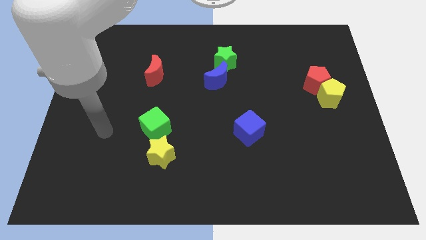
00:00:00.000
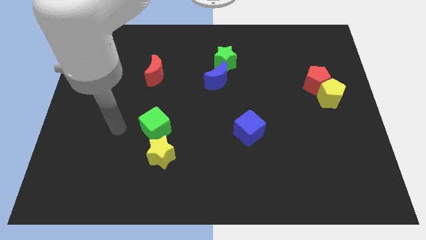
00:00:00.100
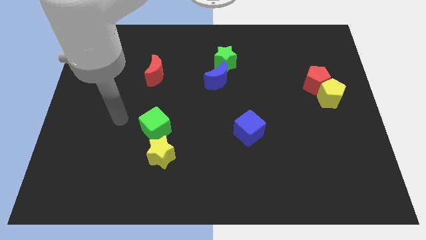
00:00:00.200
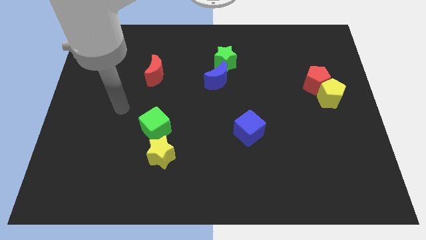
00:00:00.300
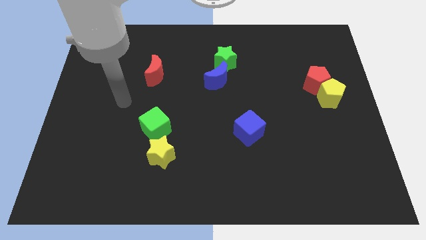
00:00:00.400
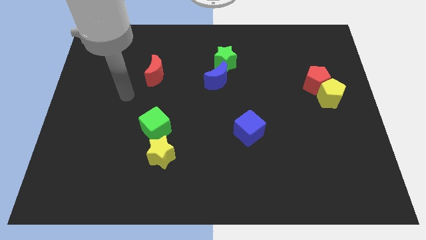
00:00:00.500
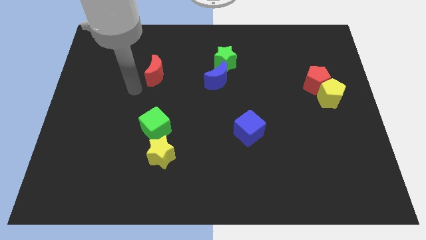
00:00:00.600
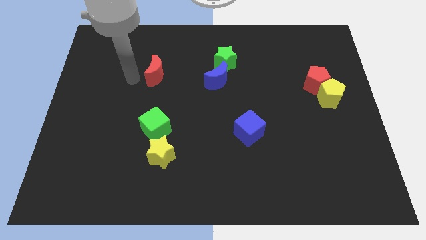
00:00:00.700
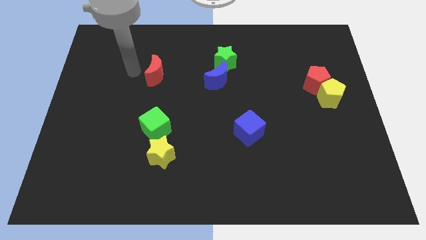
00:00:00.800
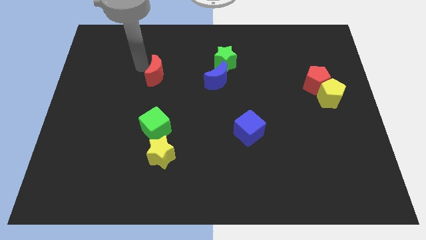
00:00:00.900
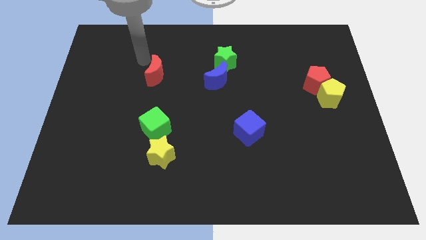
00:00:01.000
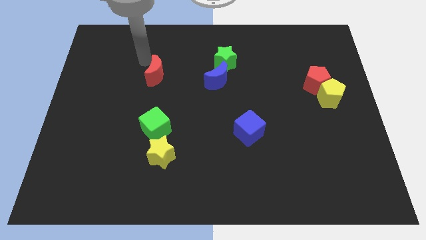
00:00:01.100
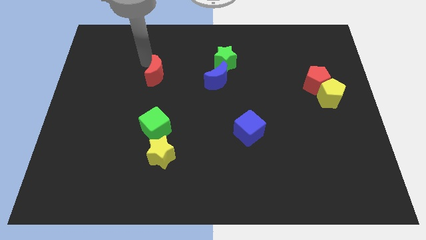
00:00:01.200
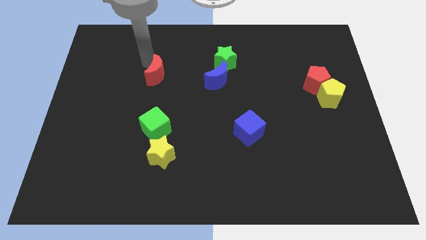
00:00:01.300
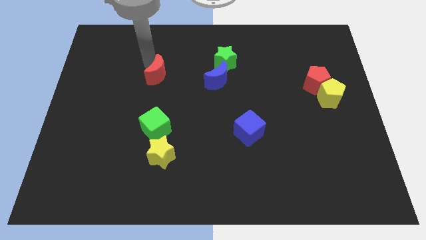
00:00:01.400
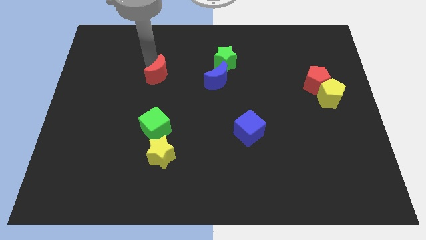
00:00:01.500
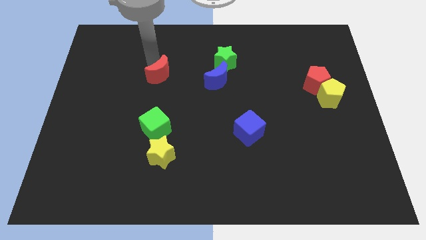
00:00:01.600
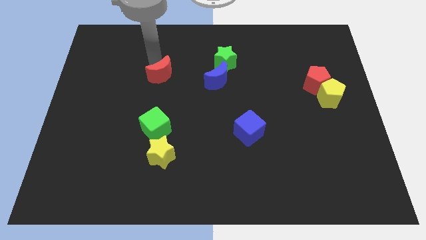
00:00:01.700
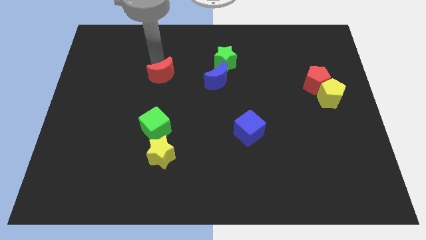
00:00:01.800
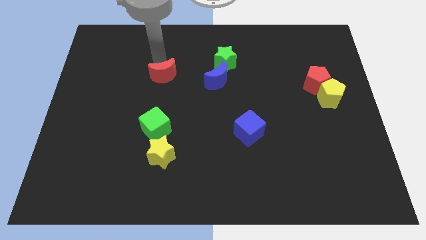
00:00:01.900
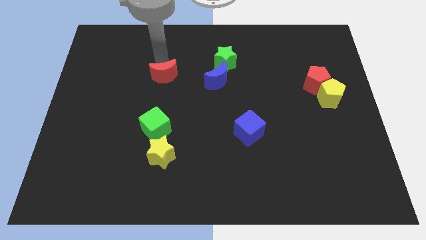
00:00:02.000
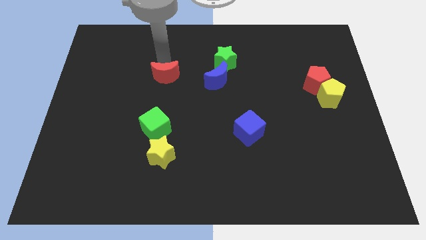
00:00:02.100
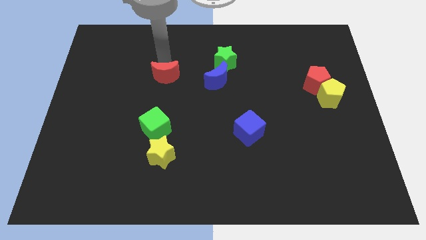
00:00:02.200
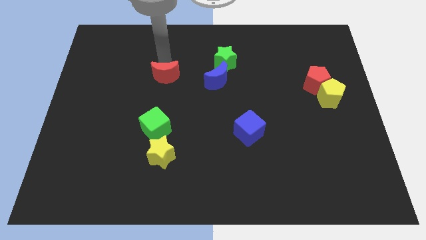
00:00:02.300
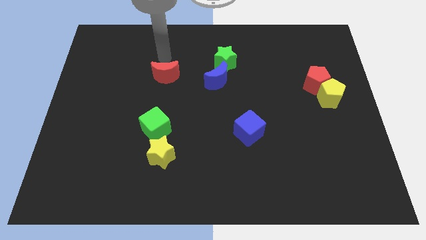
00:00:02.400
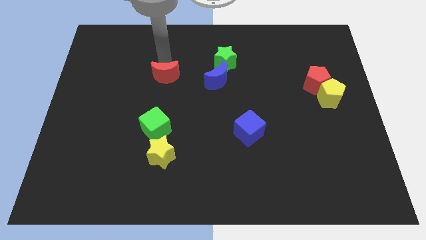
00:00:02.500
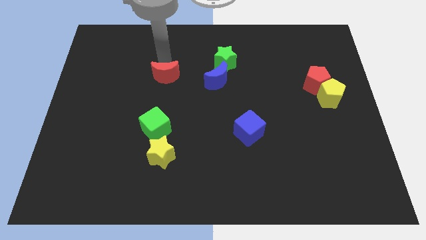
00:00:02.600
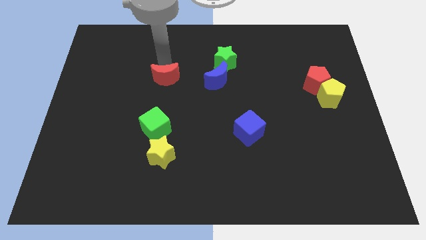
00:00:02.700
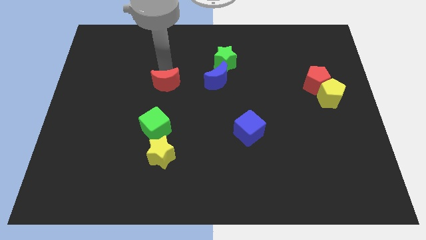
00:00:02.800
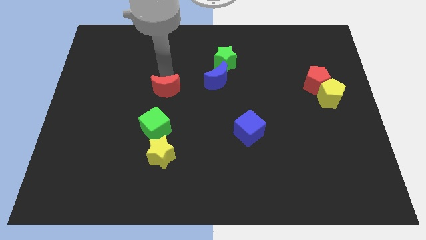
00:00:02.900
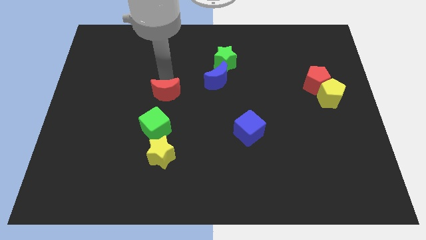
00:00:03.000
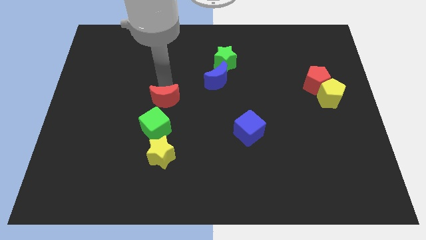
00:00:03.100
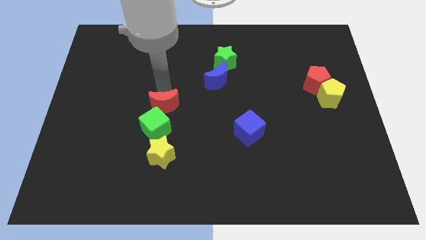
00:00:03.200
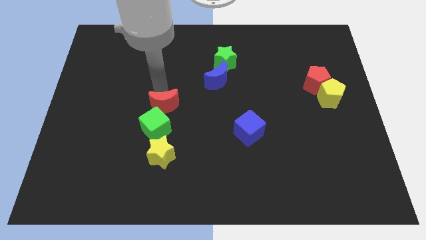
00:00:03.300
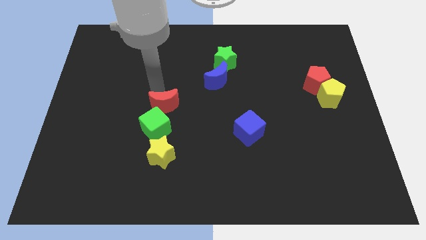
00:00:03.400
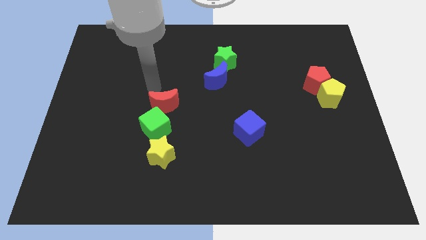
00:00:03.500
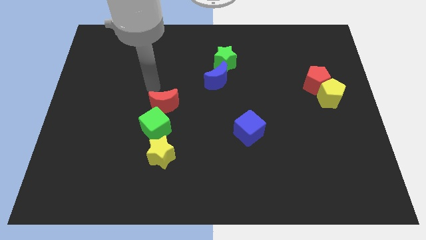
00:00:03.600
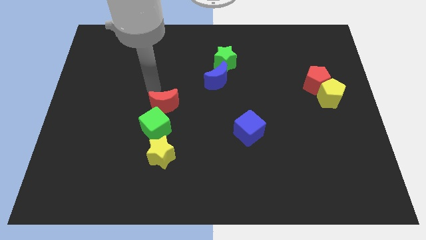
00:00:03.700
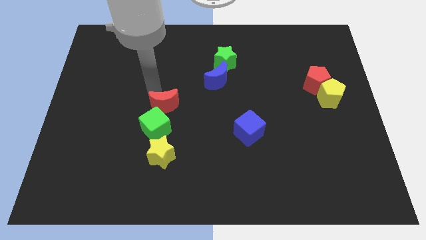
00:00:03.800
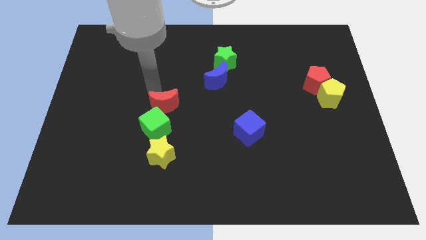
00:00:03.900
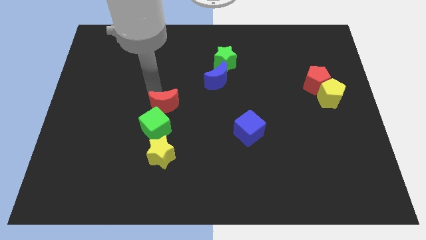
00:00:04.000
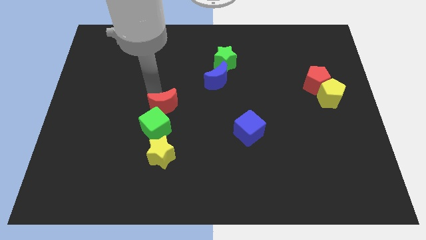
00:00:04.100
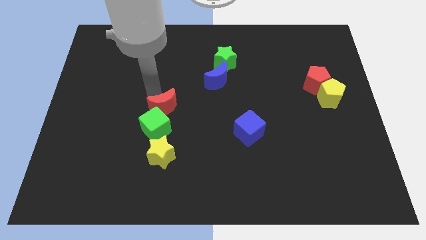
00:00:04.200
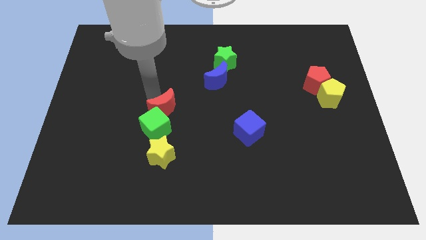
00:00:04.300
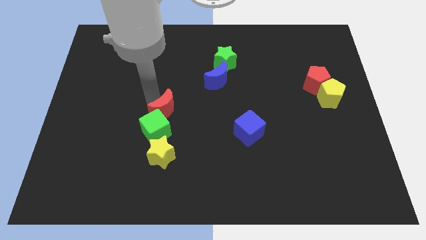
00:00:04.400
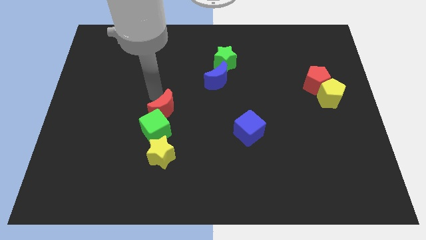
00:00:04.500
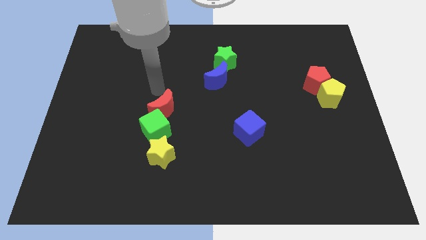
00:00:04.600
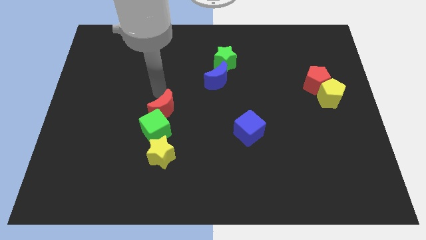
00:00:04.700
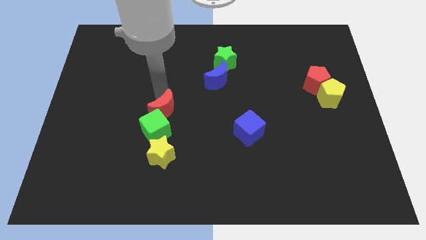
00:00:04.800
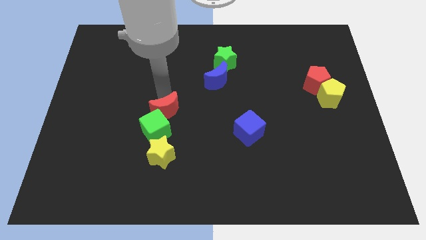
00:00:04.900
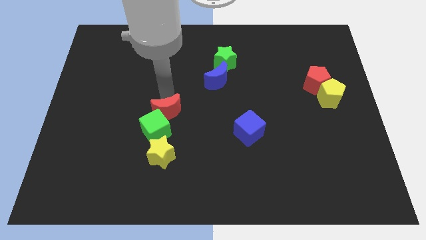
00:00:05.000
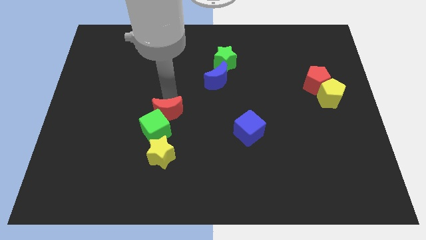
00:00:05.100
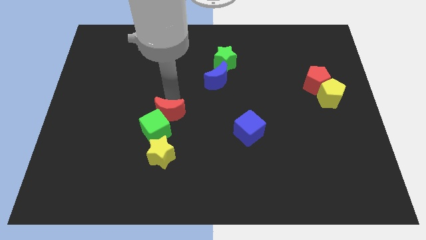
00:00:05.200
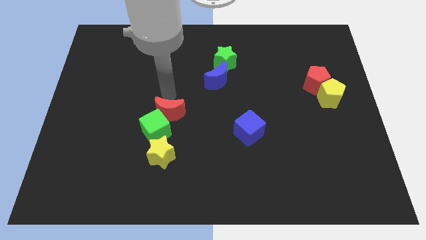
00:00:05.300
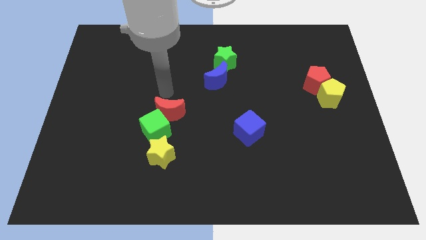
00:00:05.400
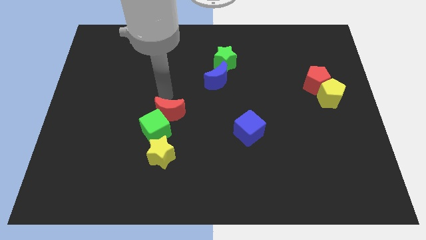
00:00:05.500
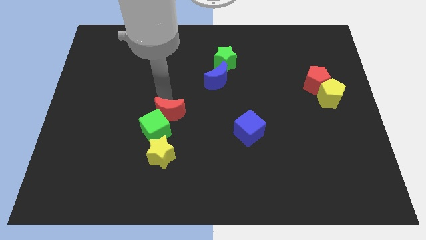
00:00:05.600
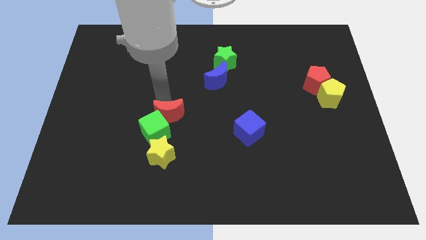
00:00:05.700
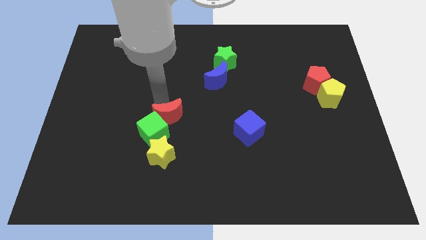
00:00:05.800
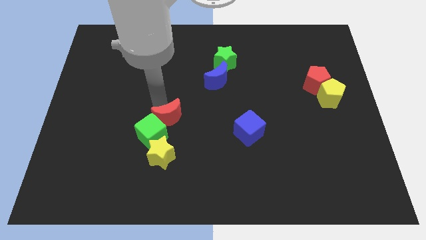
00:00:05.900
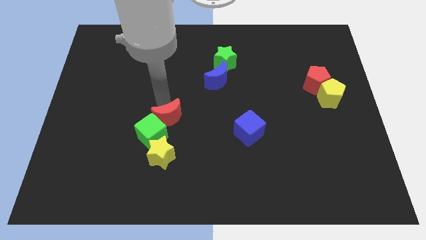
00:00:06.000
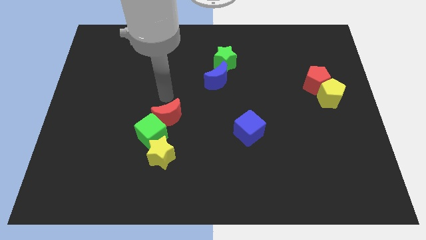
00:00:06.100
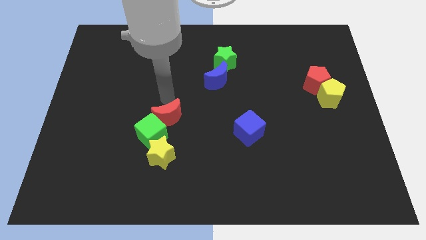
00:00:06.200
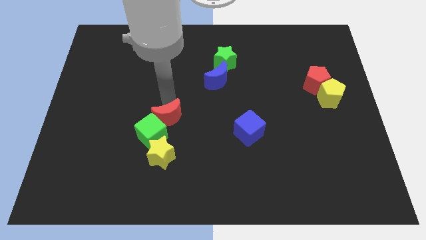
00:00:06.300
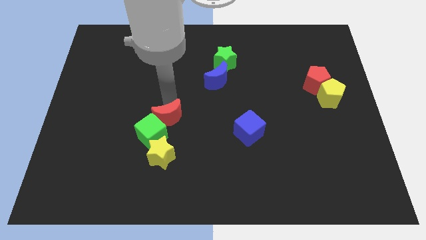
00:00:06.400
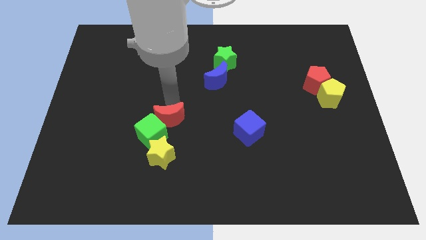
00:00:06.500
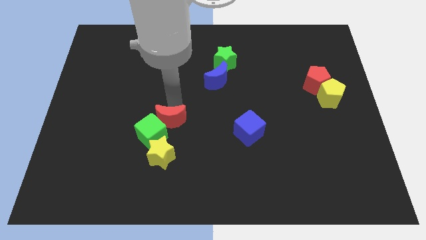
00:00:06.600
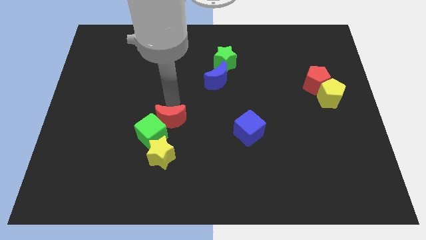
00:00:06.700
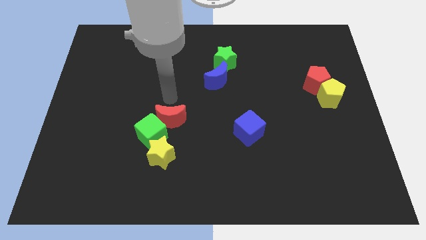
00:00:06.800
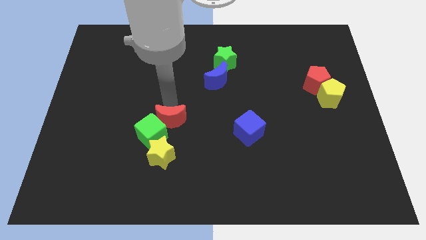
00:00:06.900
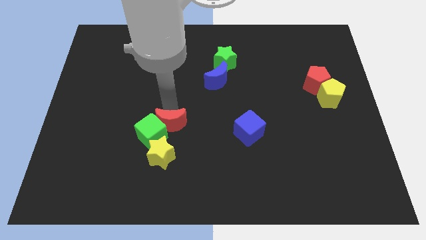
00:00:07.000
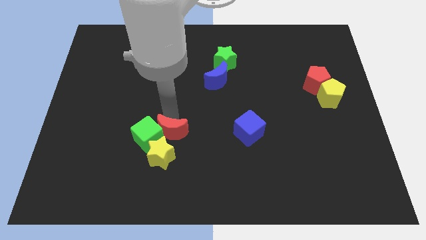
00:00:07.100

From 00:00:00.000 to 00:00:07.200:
put the red moon to the bottom right of the green cube

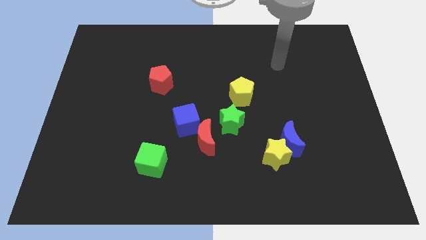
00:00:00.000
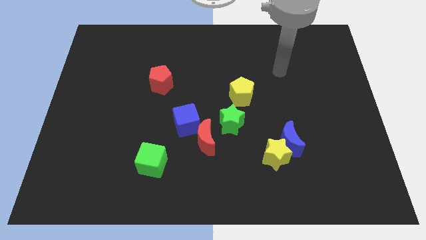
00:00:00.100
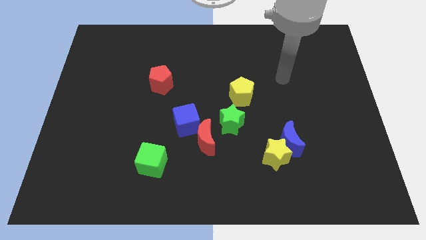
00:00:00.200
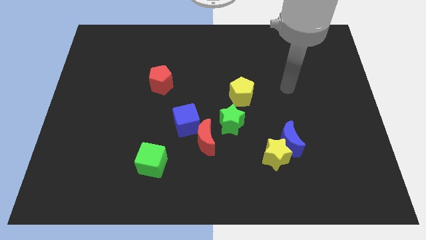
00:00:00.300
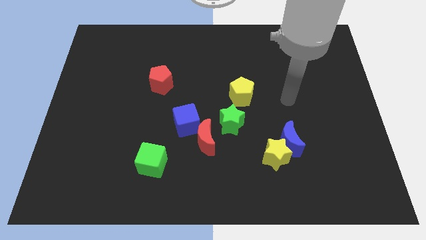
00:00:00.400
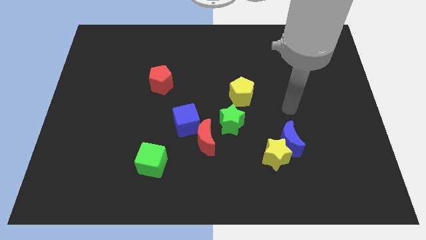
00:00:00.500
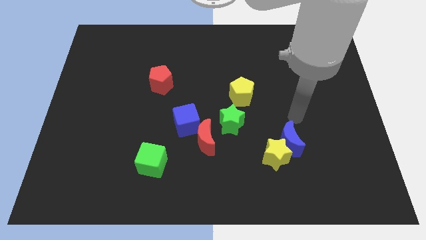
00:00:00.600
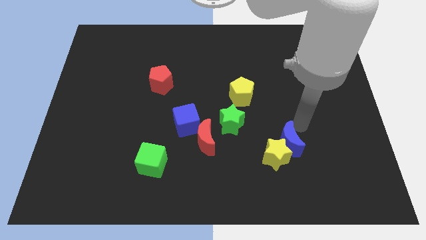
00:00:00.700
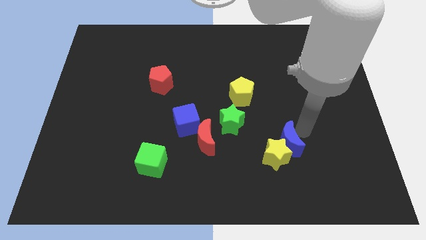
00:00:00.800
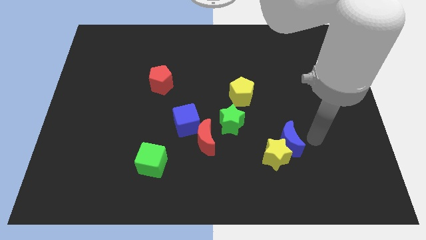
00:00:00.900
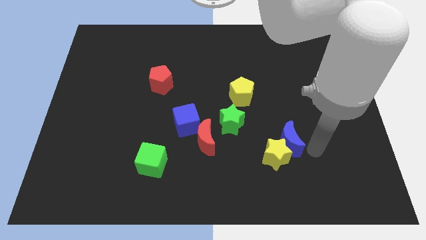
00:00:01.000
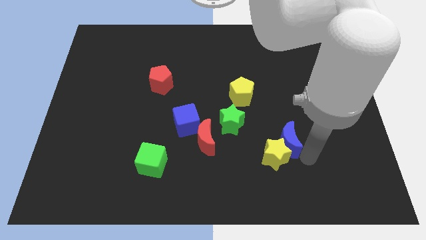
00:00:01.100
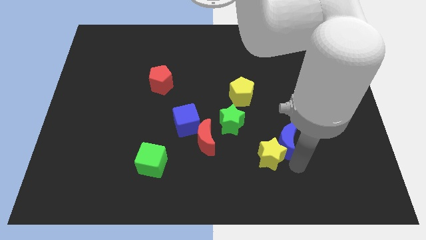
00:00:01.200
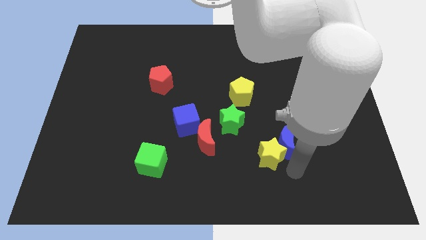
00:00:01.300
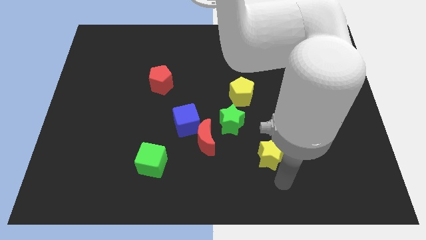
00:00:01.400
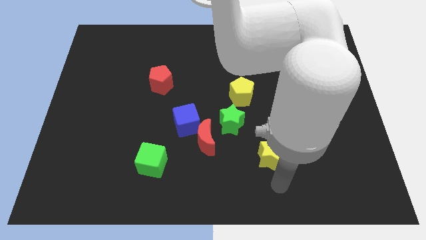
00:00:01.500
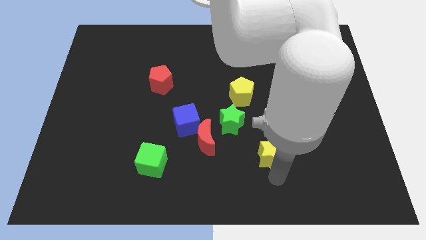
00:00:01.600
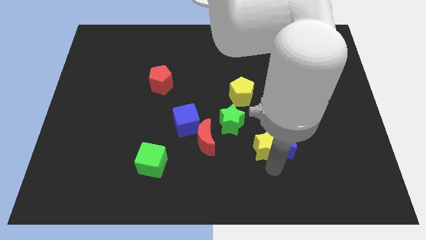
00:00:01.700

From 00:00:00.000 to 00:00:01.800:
move the yellow star to the top left of the blue moon
